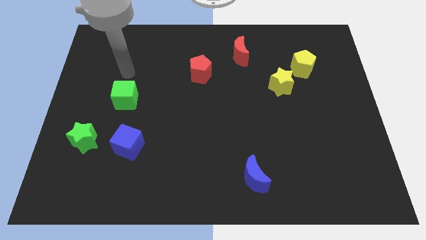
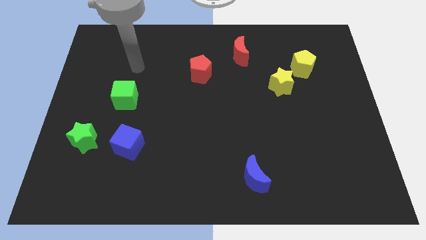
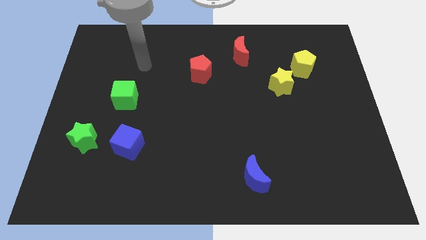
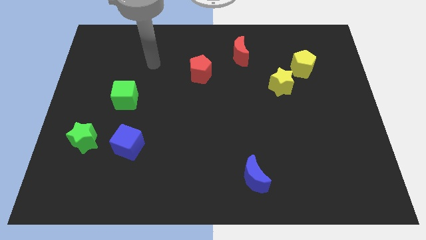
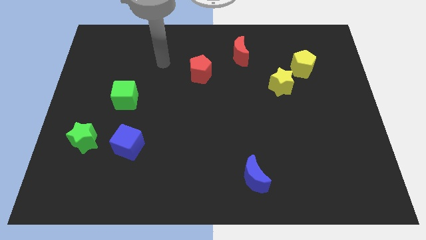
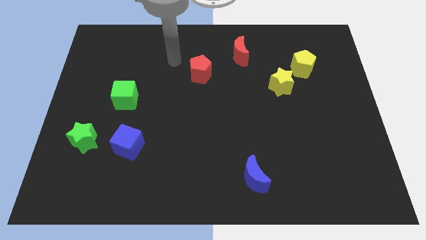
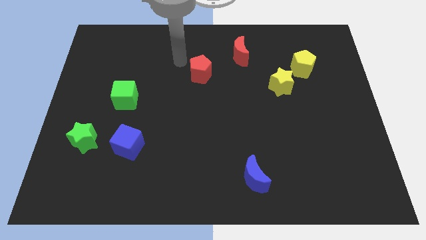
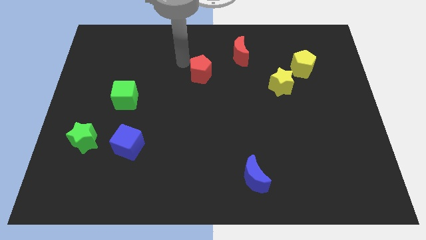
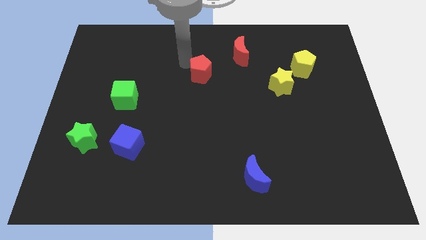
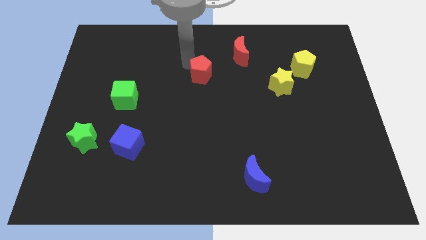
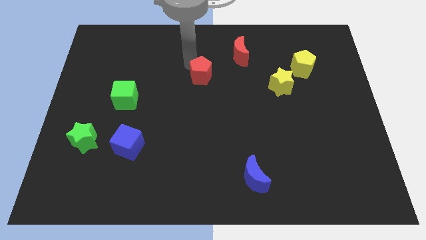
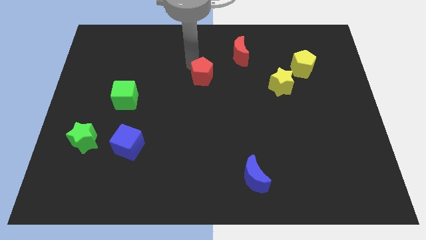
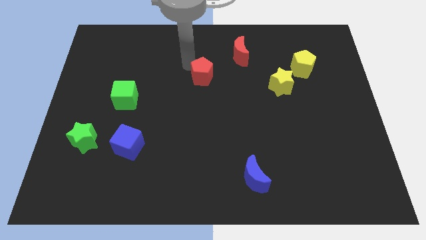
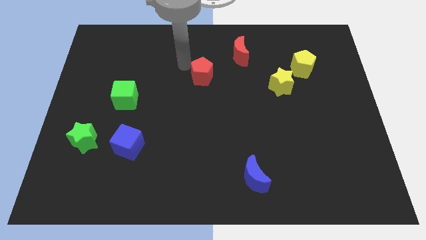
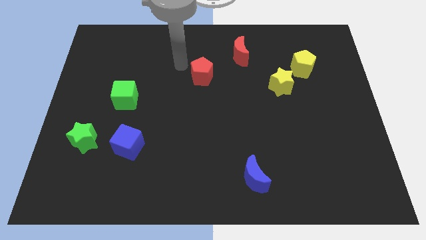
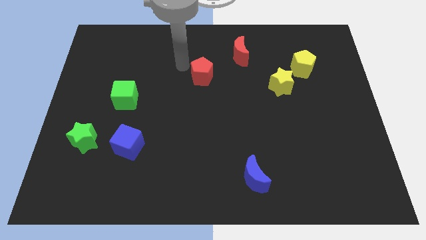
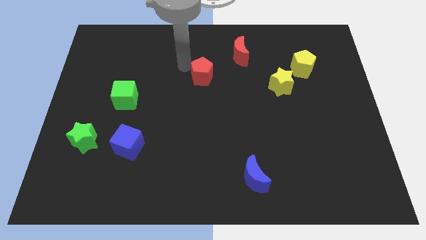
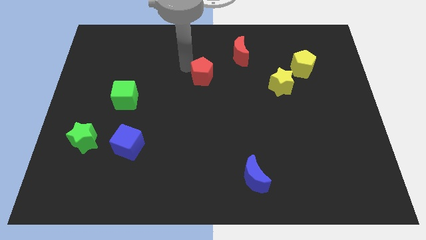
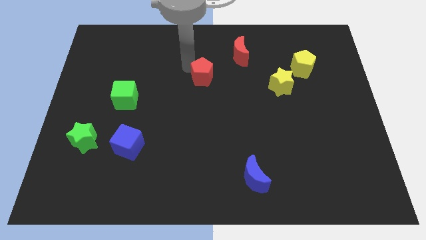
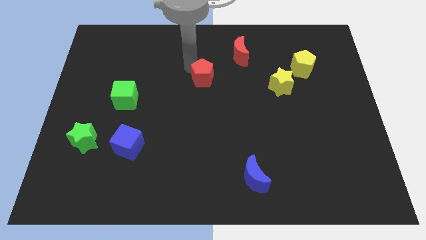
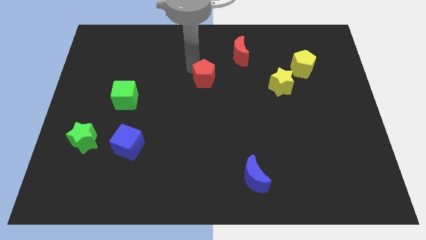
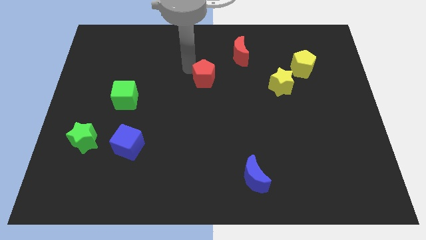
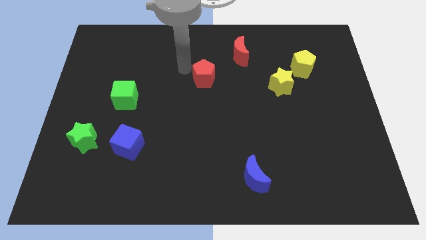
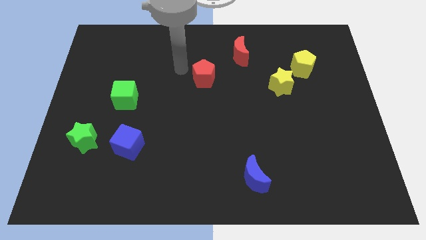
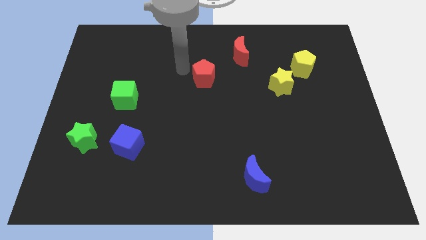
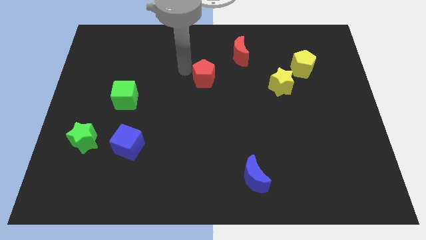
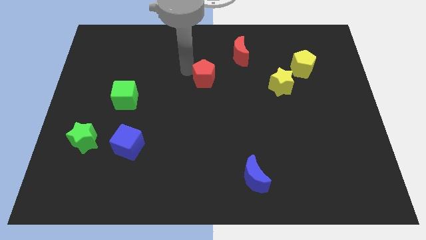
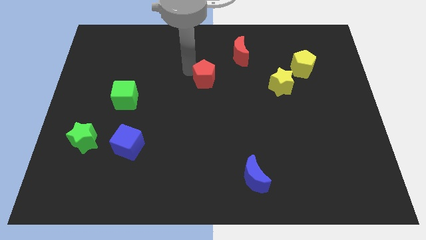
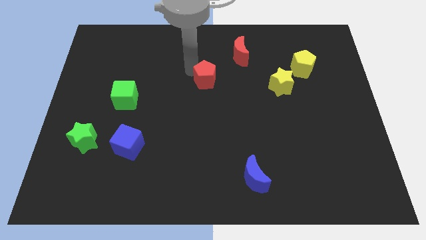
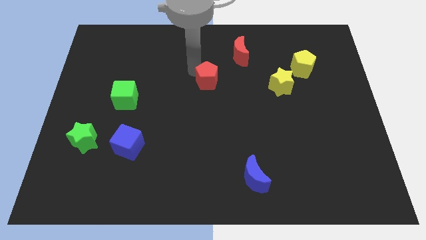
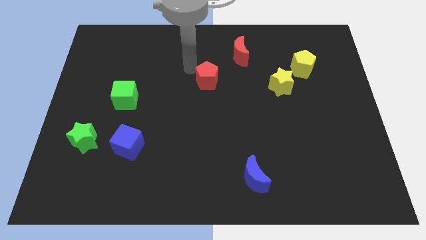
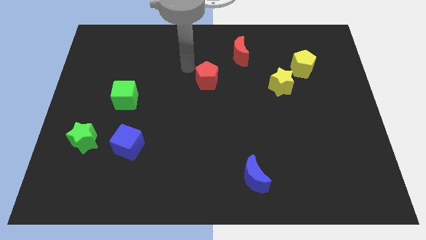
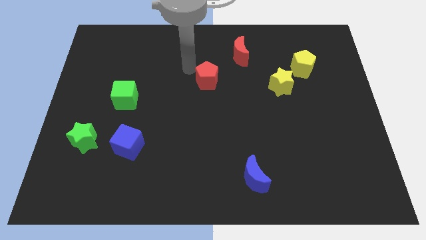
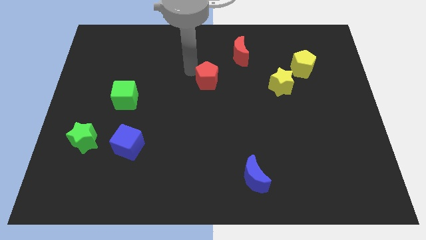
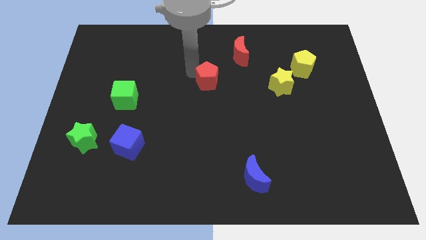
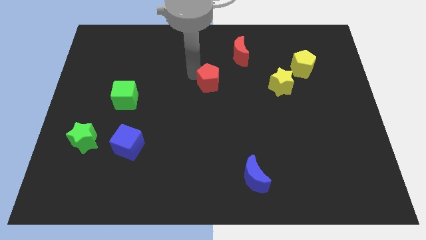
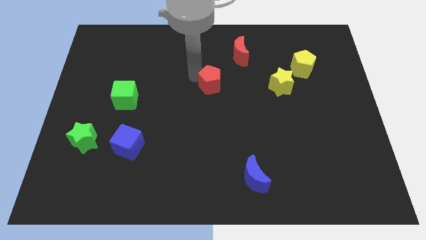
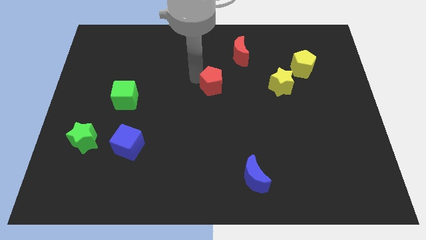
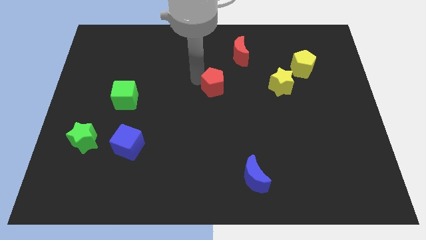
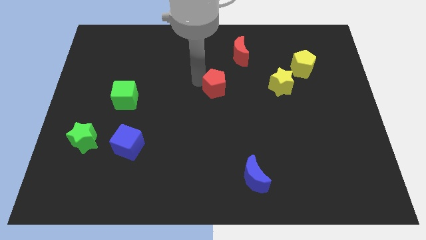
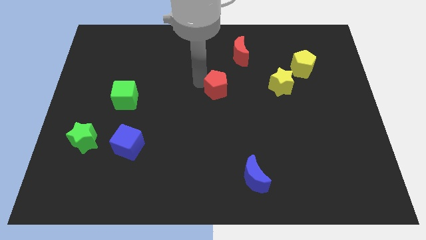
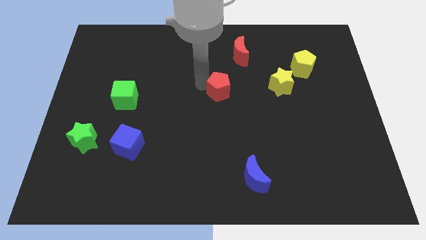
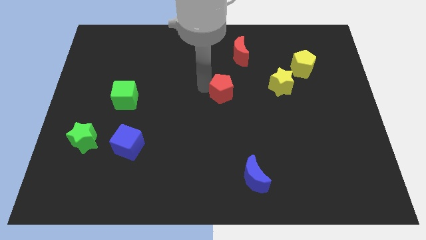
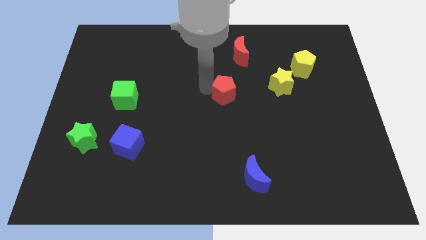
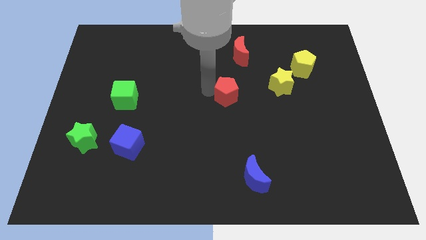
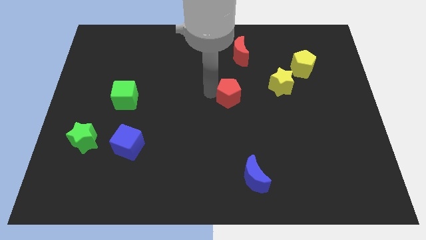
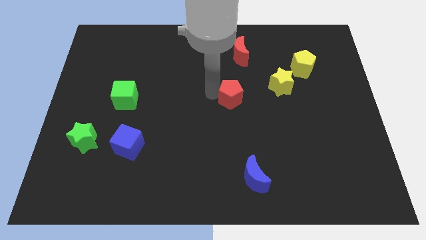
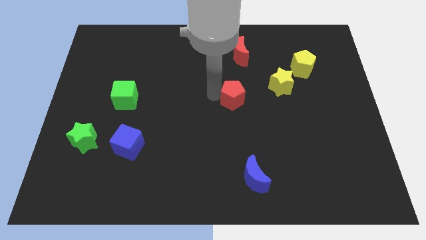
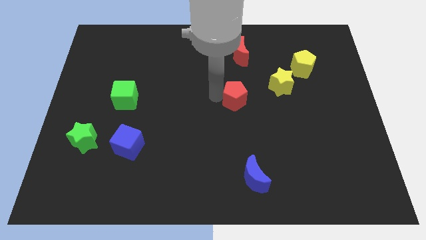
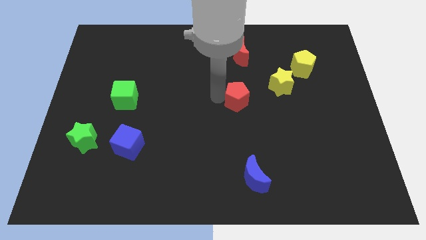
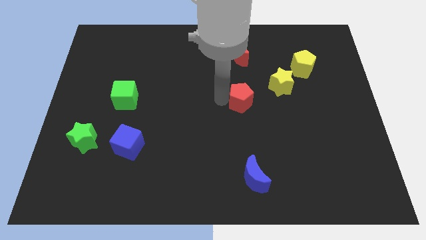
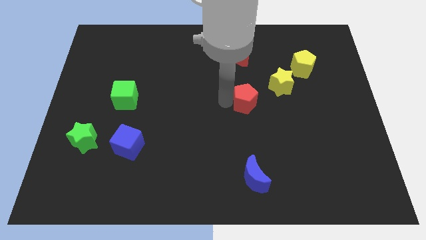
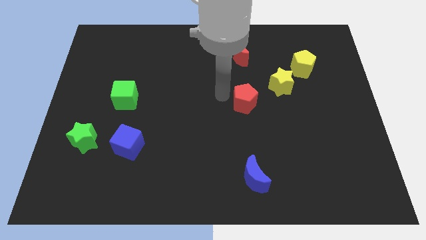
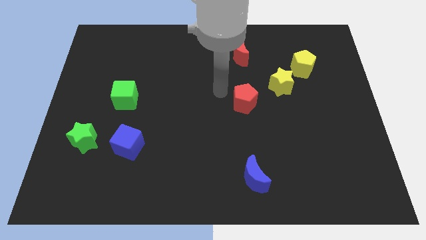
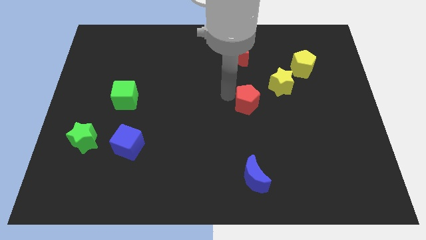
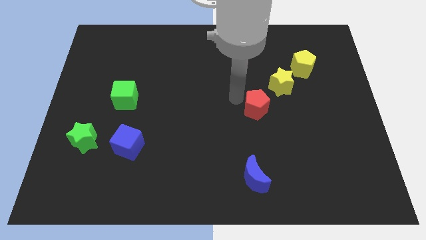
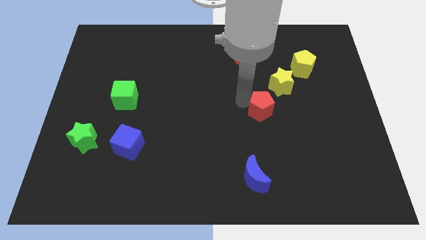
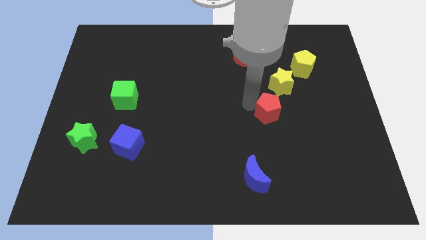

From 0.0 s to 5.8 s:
put the red pentagon to the bottom side of the yellow star
